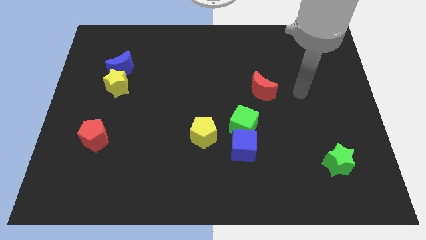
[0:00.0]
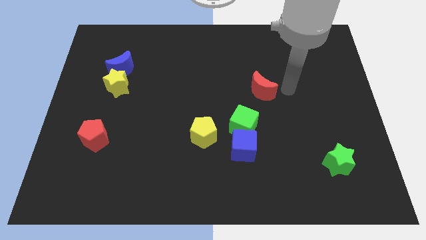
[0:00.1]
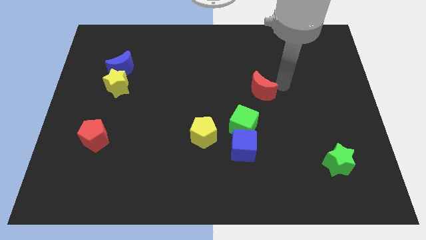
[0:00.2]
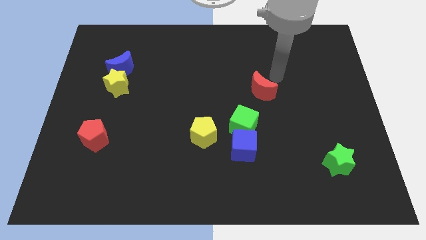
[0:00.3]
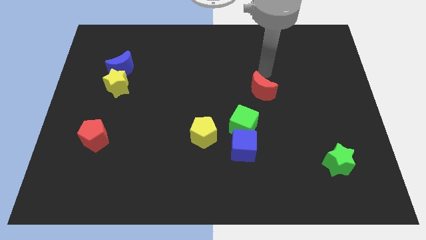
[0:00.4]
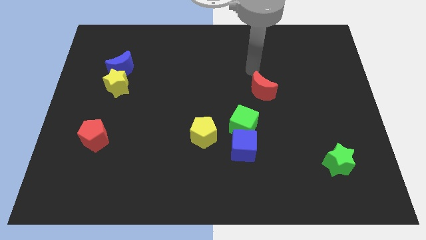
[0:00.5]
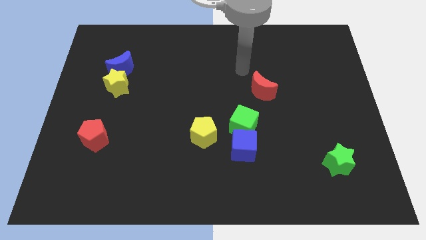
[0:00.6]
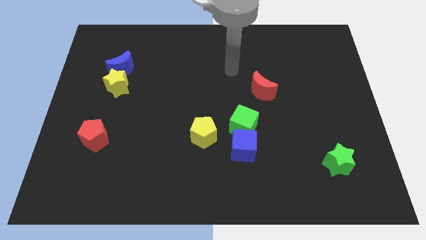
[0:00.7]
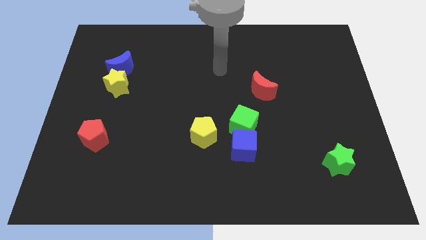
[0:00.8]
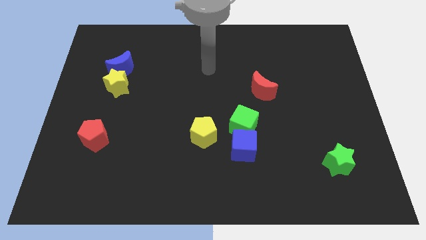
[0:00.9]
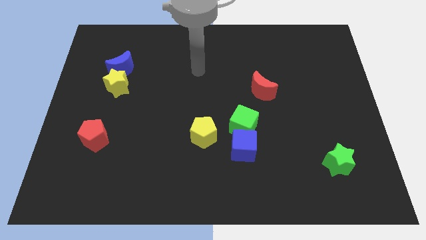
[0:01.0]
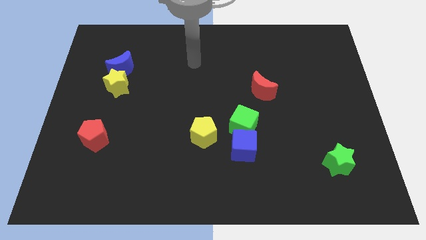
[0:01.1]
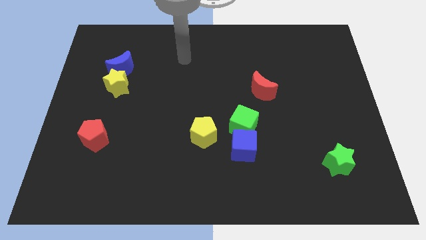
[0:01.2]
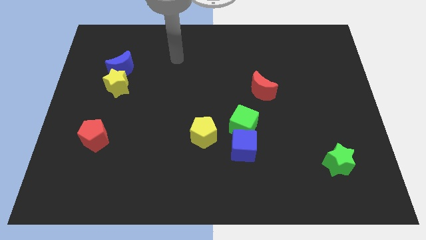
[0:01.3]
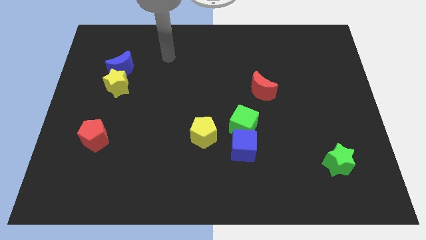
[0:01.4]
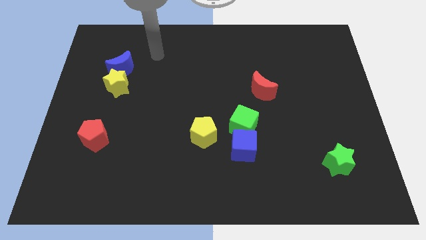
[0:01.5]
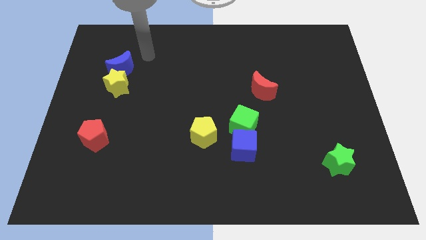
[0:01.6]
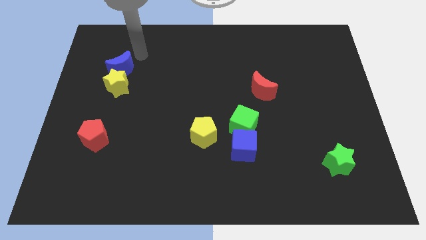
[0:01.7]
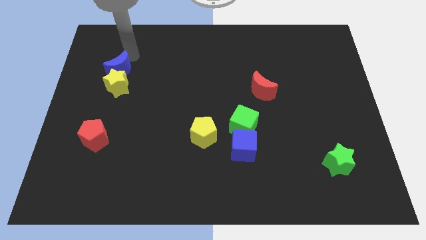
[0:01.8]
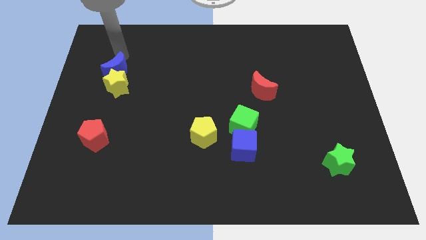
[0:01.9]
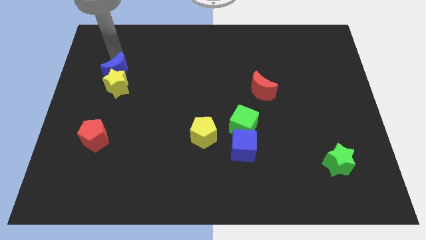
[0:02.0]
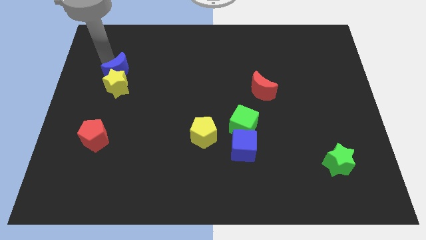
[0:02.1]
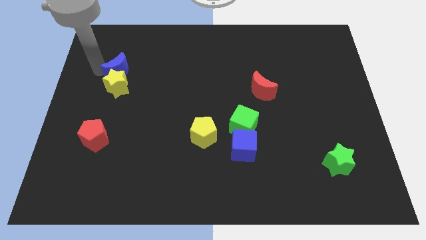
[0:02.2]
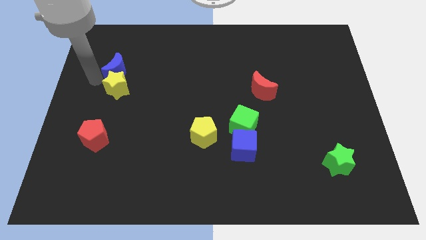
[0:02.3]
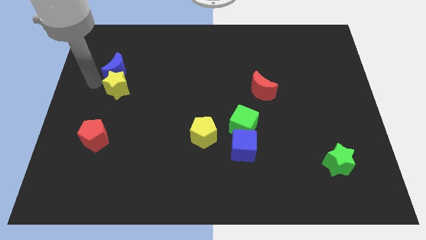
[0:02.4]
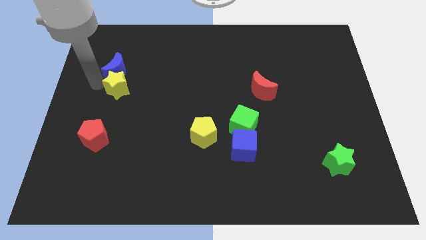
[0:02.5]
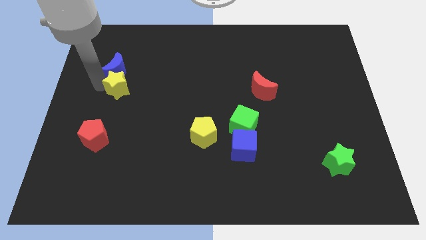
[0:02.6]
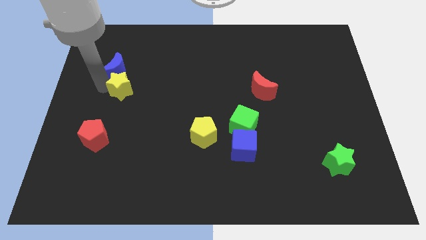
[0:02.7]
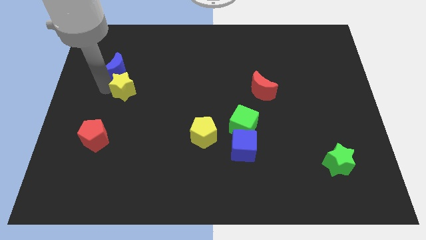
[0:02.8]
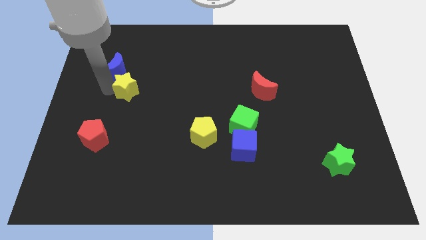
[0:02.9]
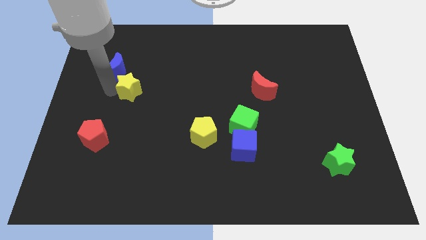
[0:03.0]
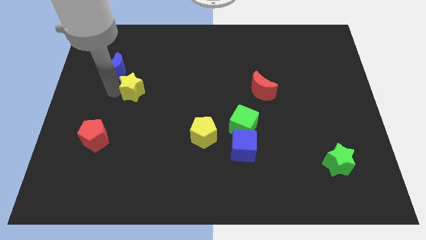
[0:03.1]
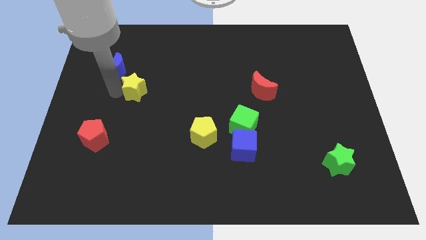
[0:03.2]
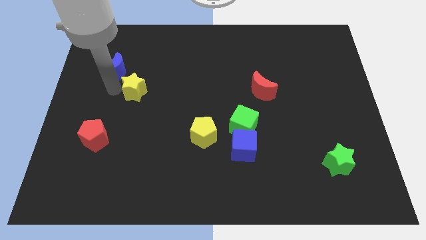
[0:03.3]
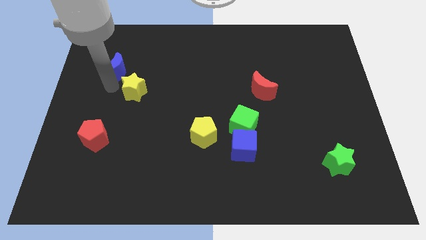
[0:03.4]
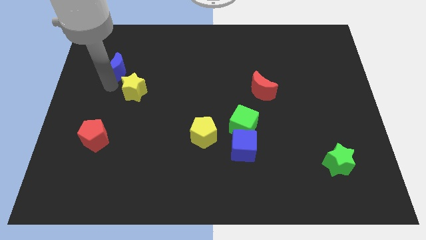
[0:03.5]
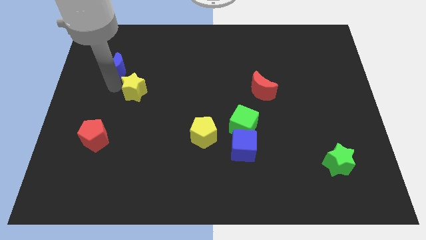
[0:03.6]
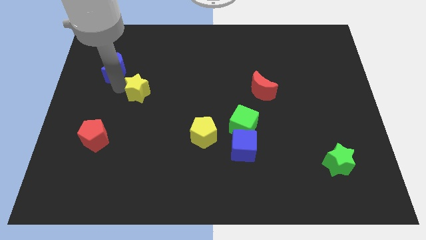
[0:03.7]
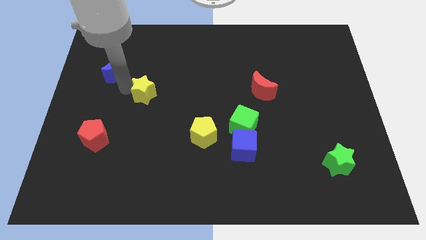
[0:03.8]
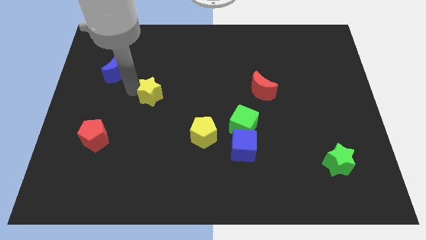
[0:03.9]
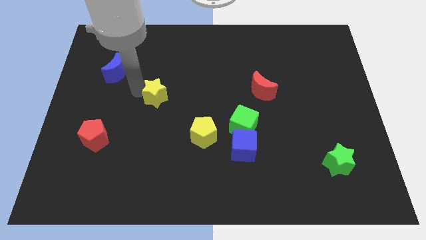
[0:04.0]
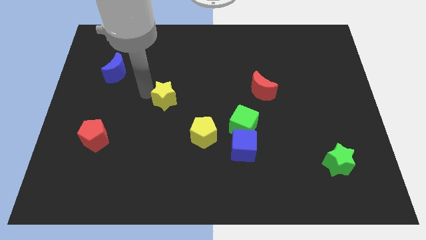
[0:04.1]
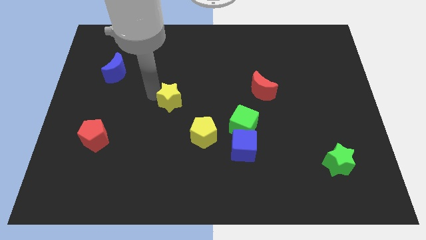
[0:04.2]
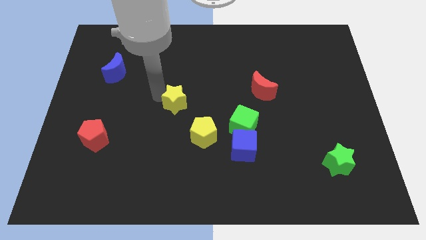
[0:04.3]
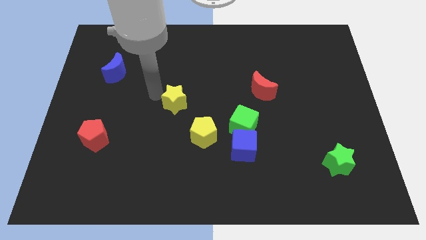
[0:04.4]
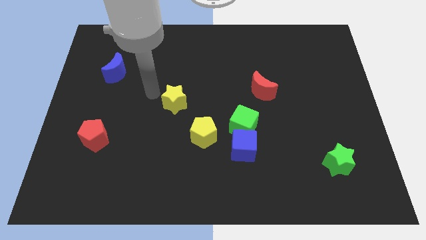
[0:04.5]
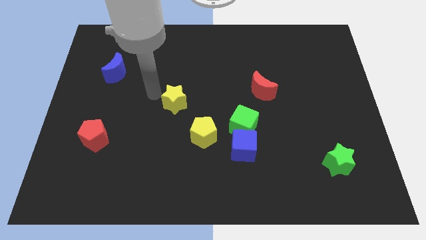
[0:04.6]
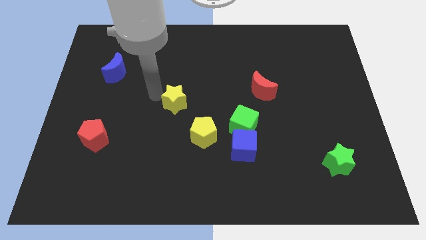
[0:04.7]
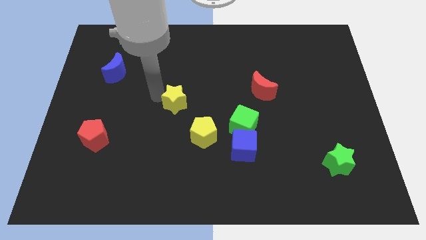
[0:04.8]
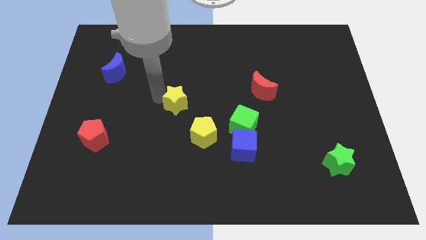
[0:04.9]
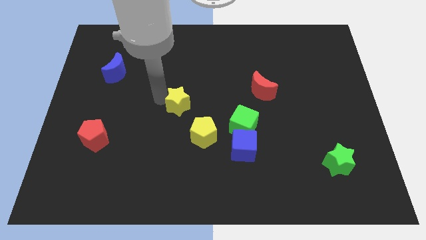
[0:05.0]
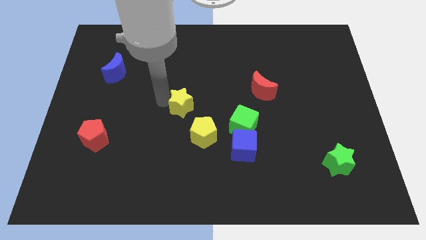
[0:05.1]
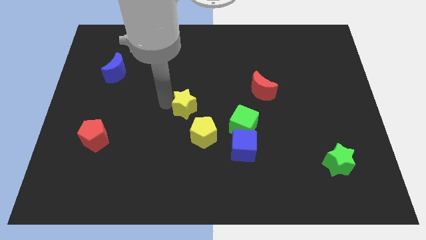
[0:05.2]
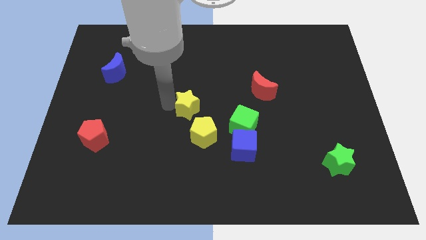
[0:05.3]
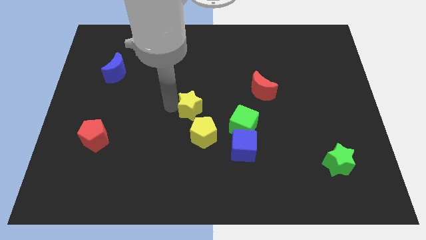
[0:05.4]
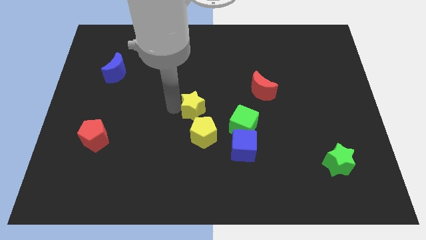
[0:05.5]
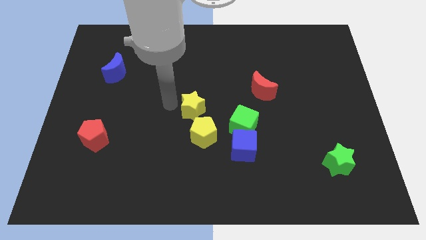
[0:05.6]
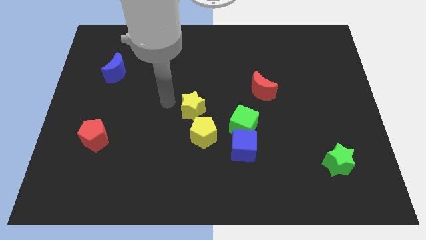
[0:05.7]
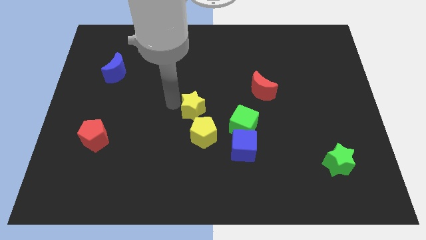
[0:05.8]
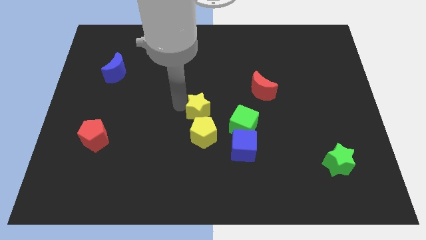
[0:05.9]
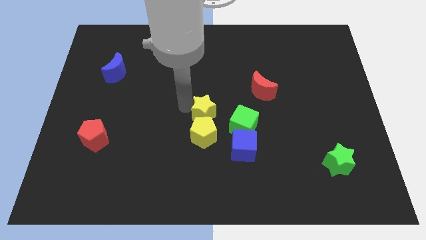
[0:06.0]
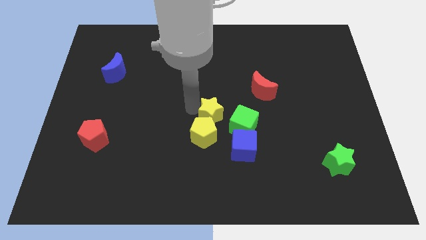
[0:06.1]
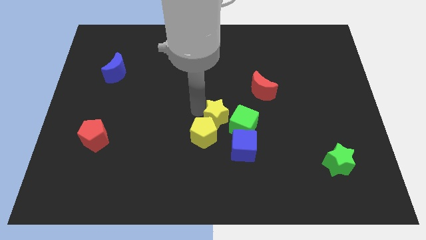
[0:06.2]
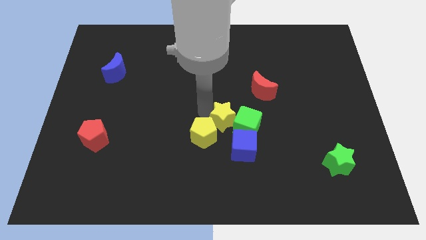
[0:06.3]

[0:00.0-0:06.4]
push the yellow star next to the green cube

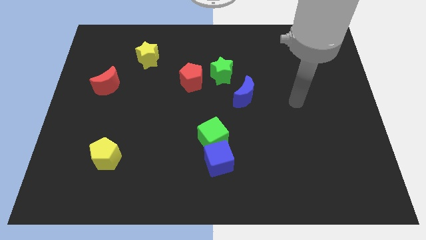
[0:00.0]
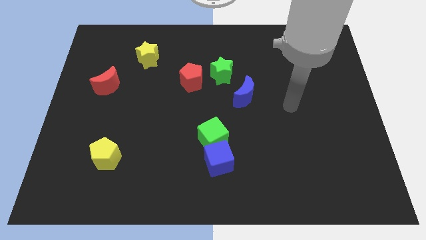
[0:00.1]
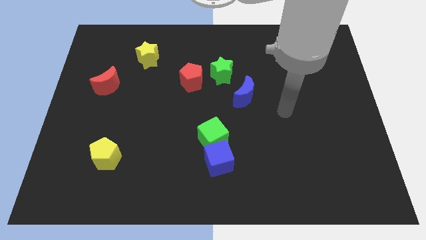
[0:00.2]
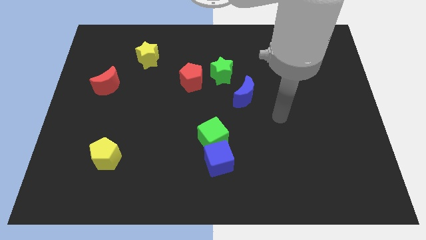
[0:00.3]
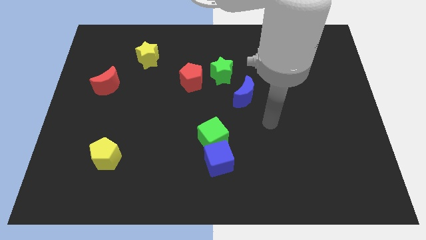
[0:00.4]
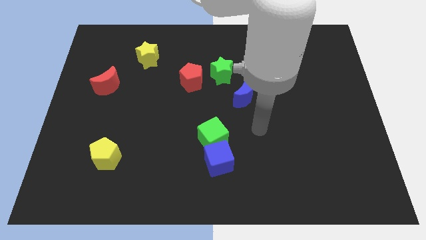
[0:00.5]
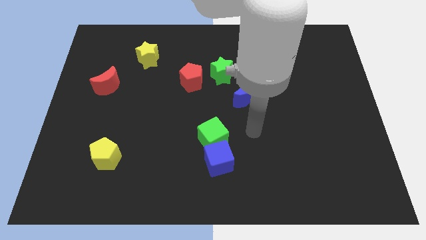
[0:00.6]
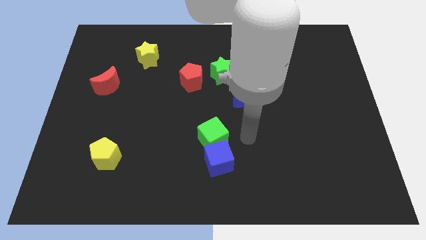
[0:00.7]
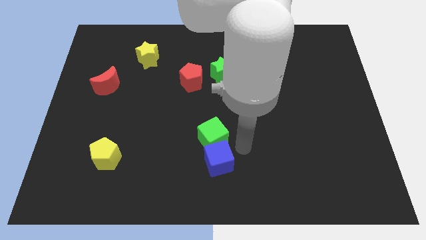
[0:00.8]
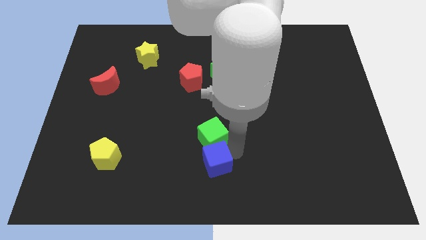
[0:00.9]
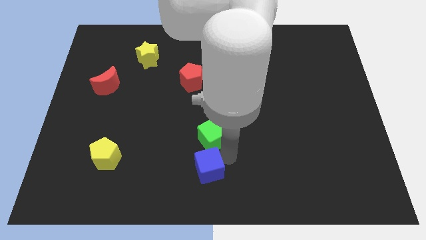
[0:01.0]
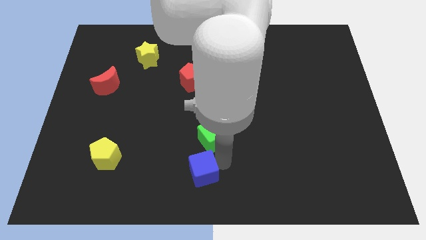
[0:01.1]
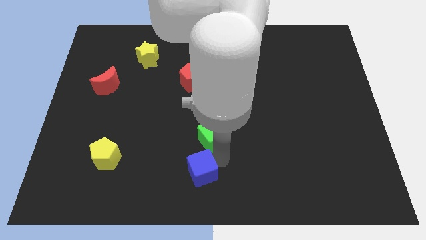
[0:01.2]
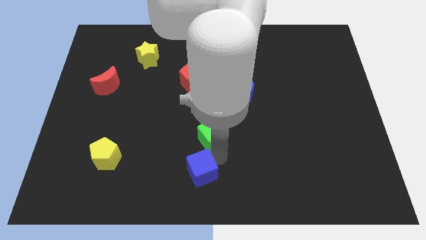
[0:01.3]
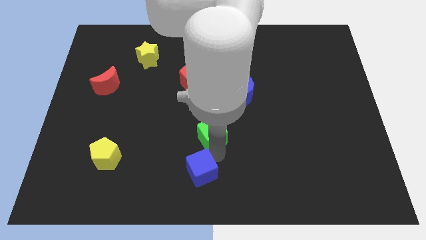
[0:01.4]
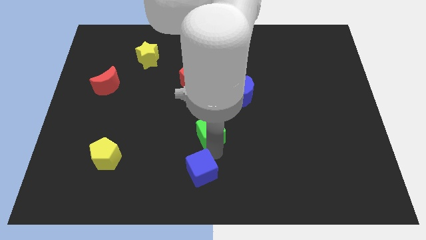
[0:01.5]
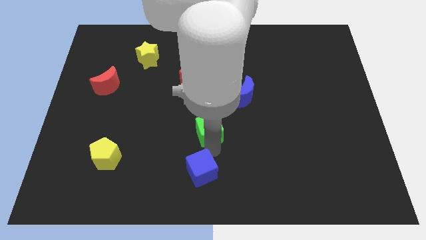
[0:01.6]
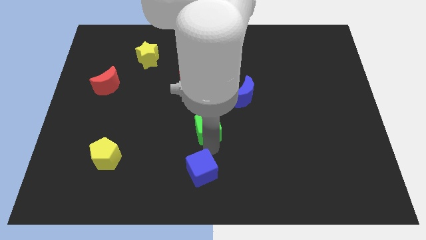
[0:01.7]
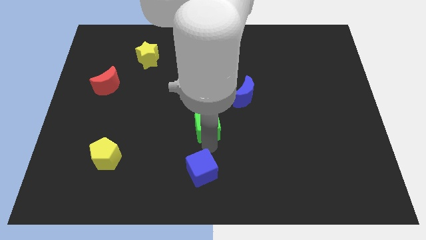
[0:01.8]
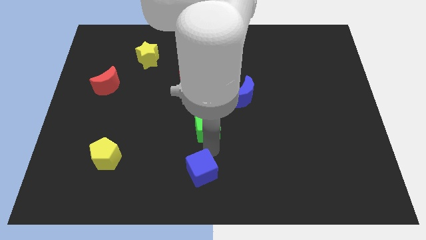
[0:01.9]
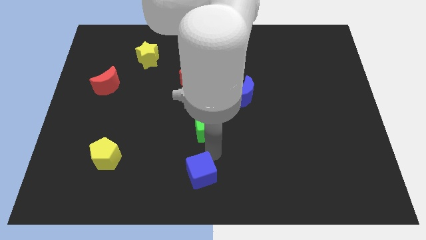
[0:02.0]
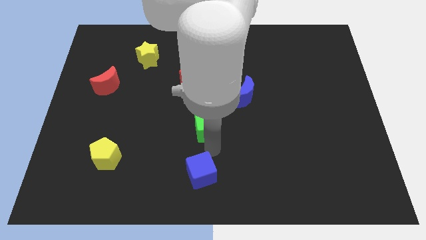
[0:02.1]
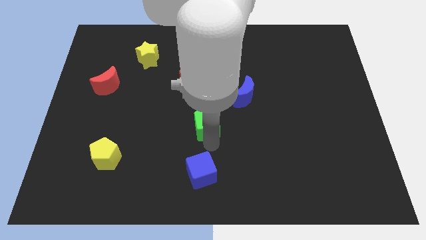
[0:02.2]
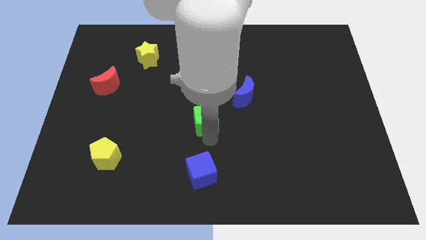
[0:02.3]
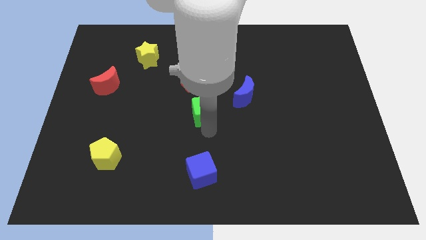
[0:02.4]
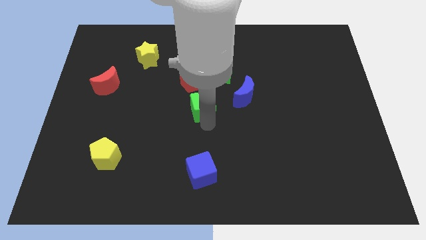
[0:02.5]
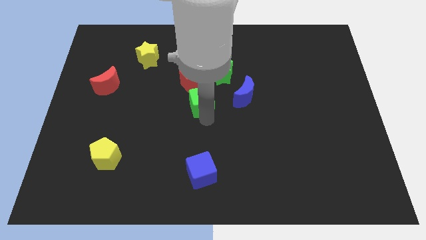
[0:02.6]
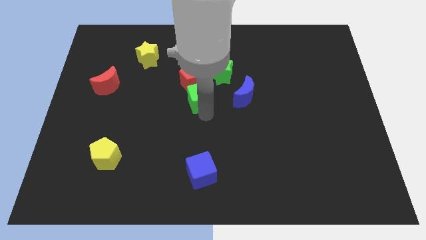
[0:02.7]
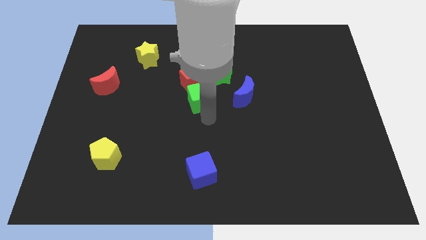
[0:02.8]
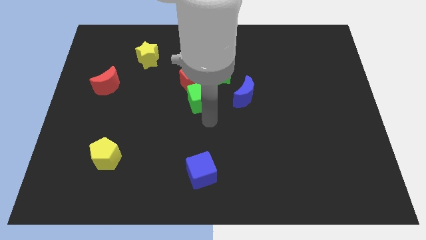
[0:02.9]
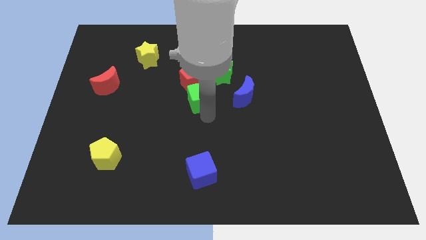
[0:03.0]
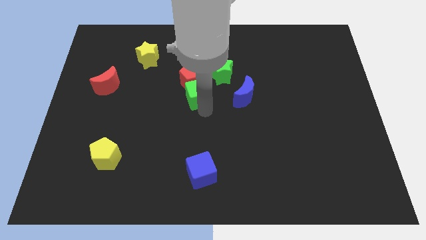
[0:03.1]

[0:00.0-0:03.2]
move the green cube towards the red pentagon
